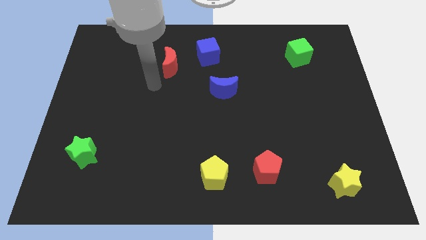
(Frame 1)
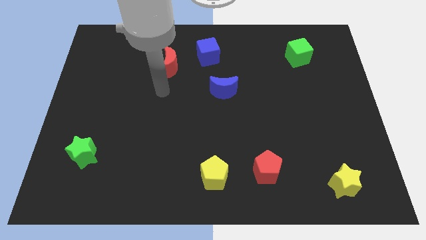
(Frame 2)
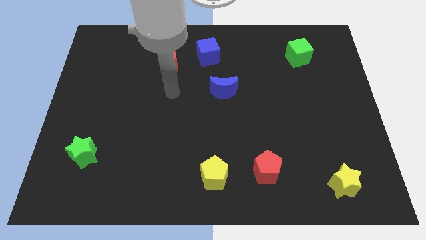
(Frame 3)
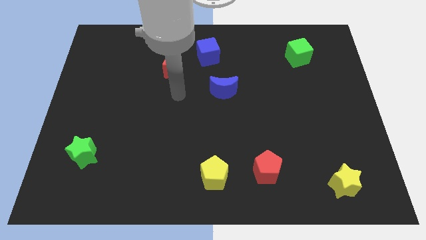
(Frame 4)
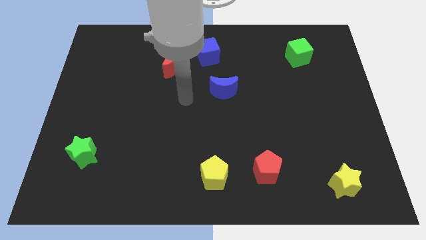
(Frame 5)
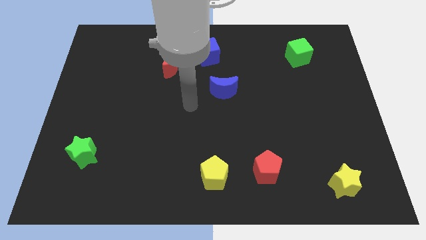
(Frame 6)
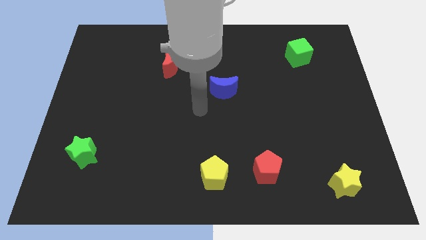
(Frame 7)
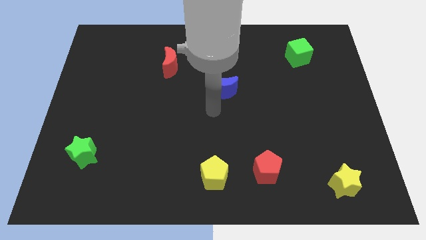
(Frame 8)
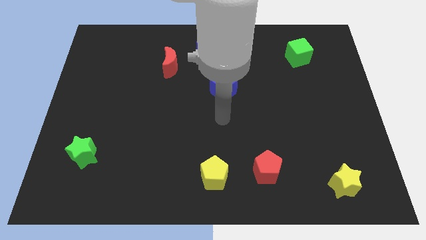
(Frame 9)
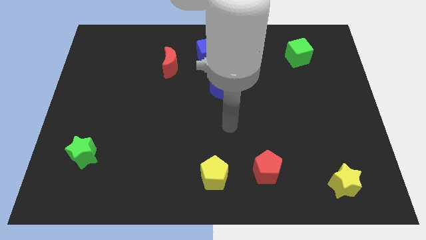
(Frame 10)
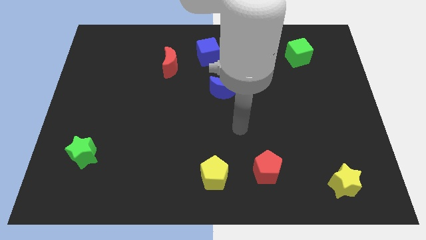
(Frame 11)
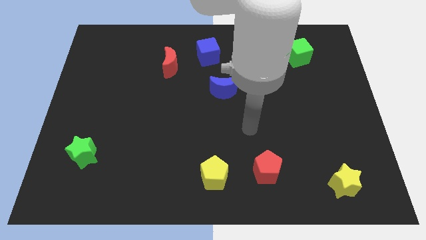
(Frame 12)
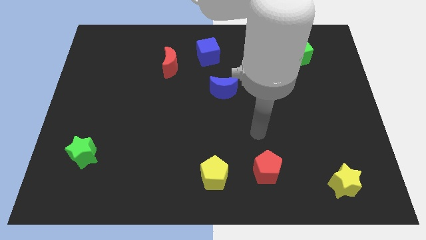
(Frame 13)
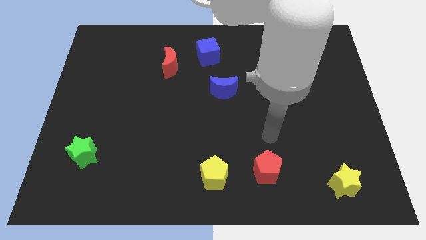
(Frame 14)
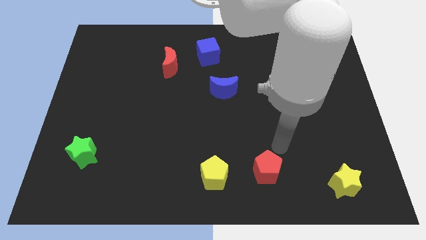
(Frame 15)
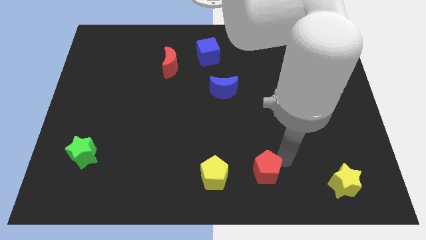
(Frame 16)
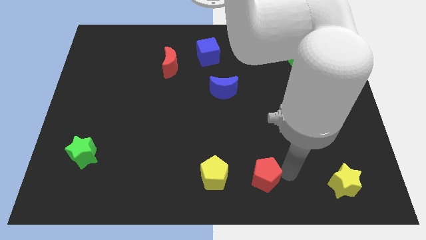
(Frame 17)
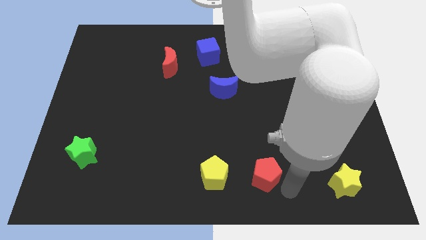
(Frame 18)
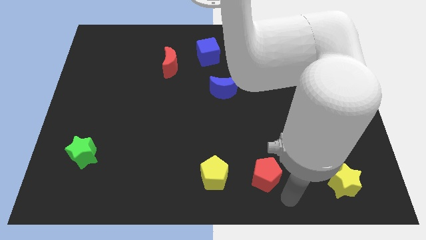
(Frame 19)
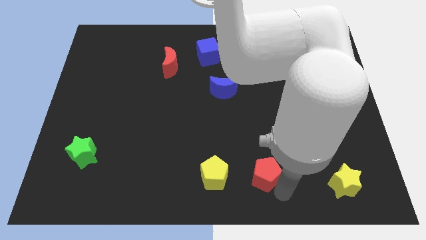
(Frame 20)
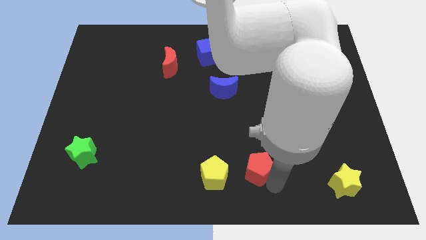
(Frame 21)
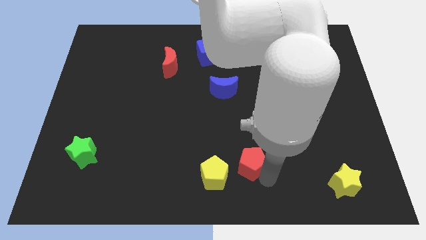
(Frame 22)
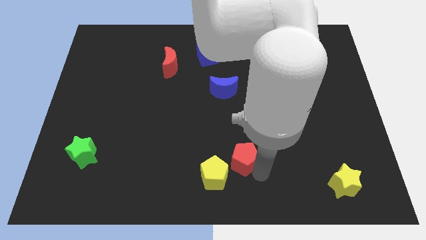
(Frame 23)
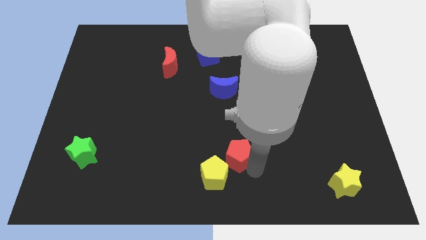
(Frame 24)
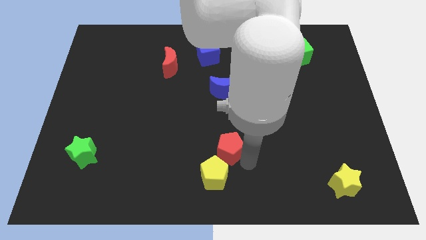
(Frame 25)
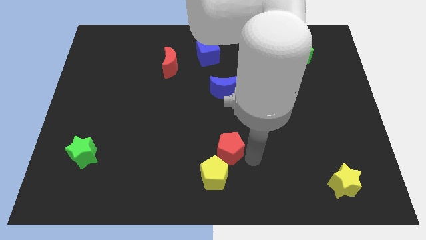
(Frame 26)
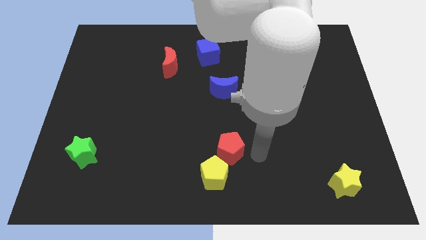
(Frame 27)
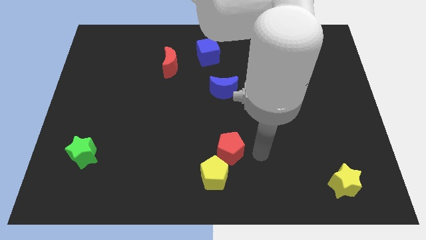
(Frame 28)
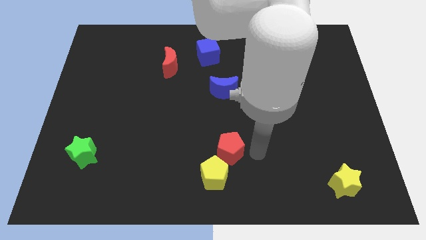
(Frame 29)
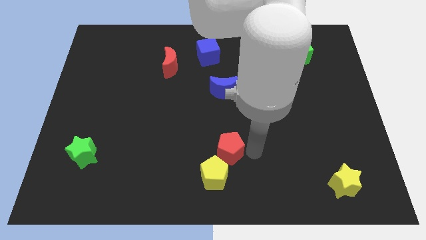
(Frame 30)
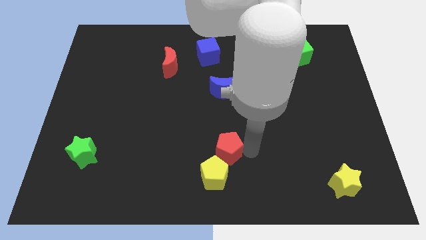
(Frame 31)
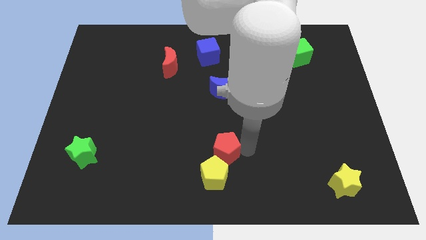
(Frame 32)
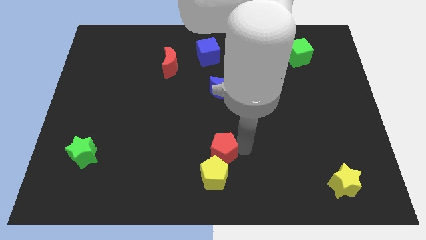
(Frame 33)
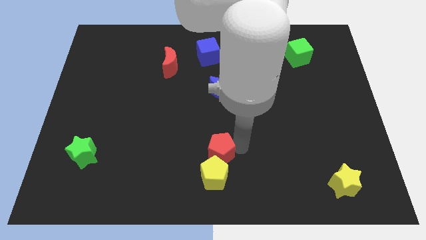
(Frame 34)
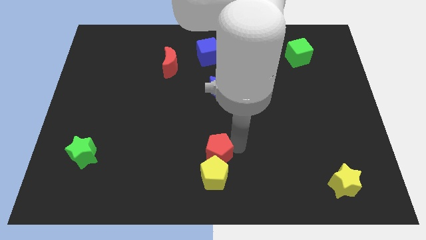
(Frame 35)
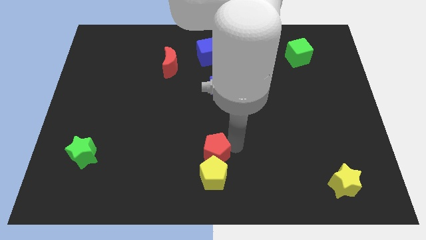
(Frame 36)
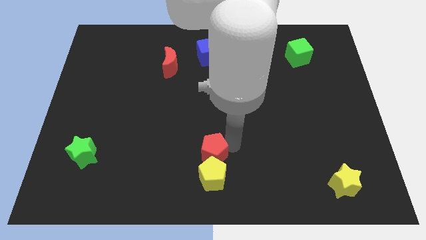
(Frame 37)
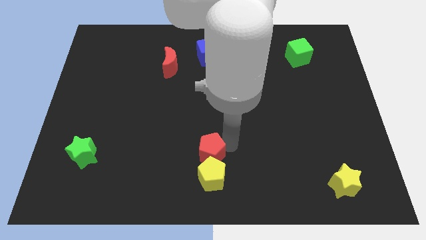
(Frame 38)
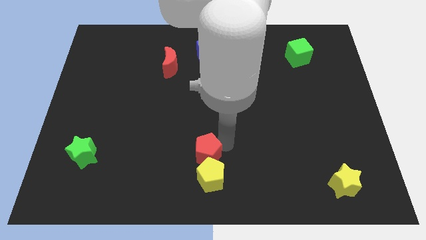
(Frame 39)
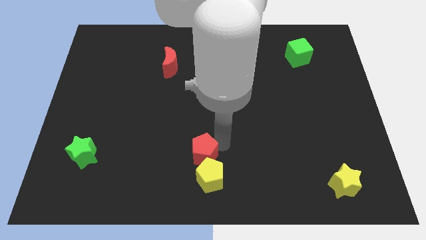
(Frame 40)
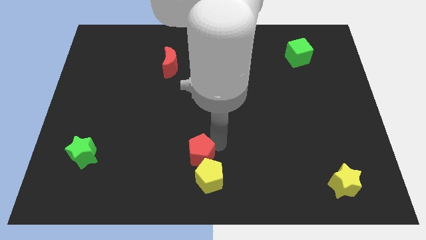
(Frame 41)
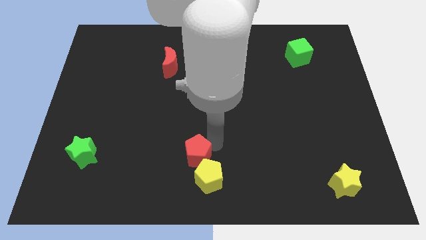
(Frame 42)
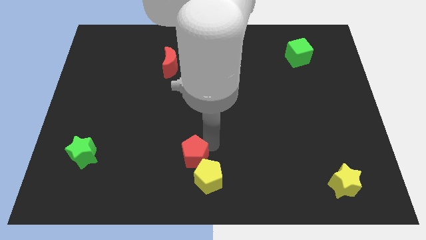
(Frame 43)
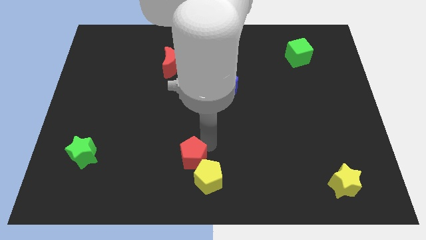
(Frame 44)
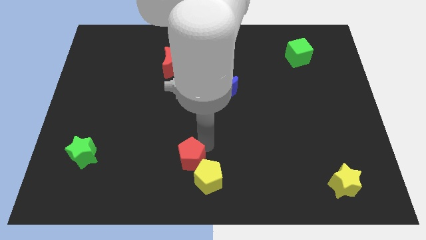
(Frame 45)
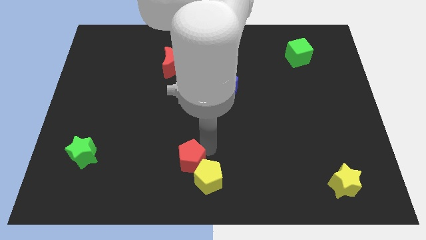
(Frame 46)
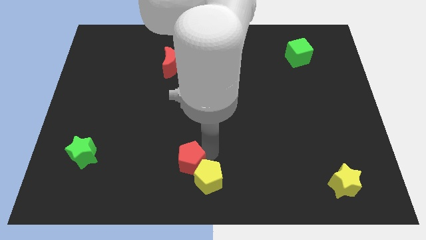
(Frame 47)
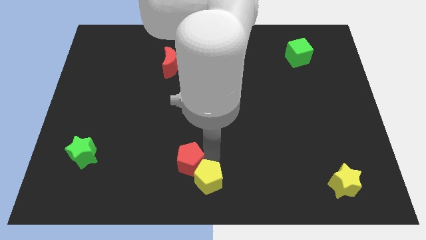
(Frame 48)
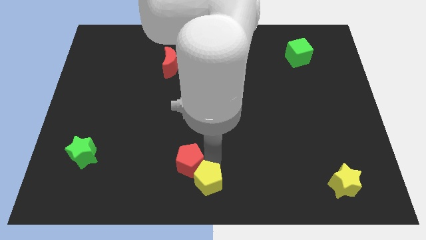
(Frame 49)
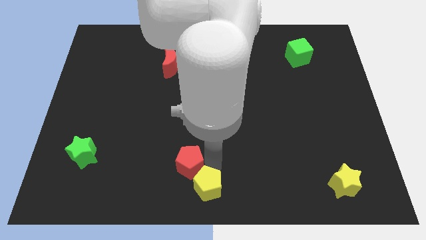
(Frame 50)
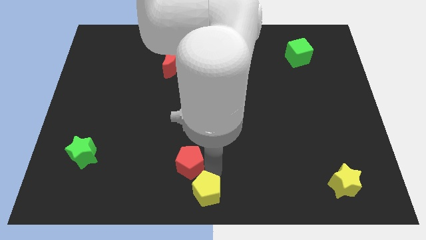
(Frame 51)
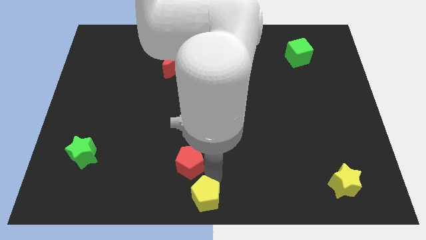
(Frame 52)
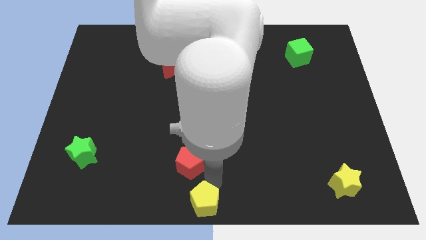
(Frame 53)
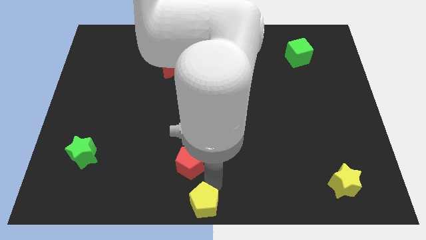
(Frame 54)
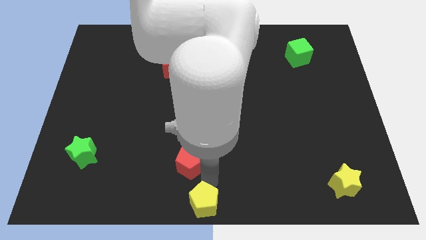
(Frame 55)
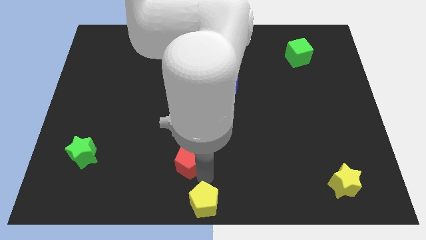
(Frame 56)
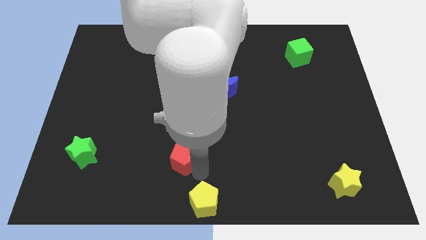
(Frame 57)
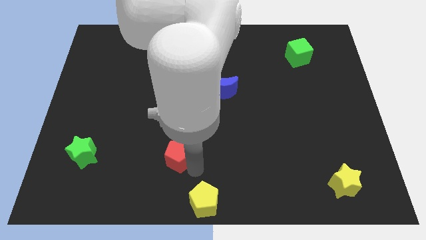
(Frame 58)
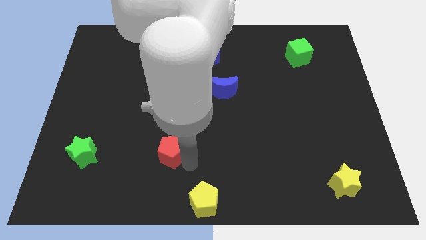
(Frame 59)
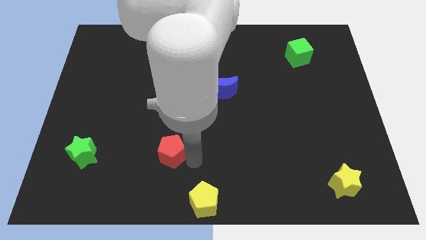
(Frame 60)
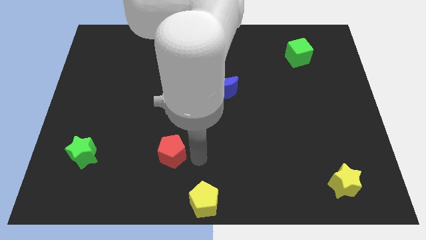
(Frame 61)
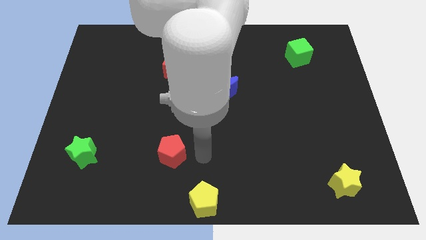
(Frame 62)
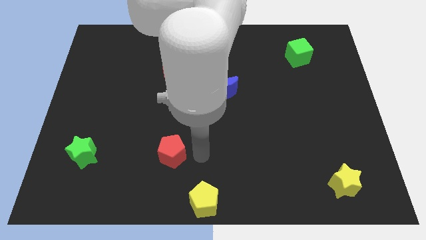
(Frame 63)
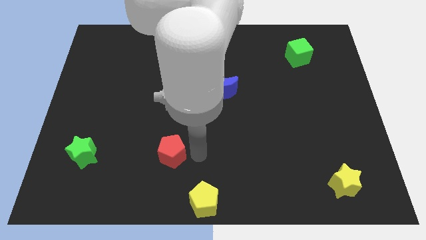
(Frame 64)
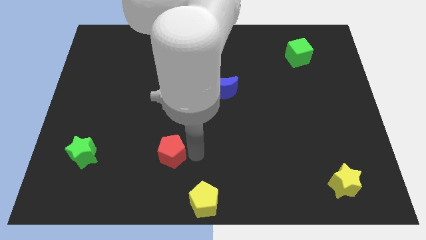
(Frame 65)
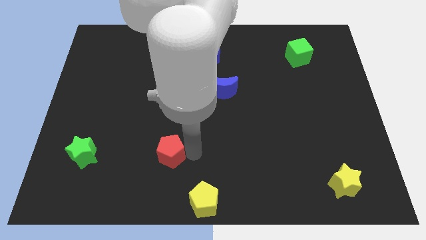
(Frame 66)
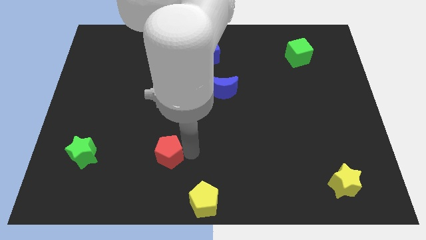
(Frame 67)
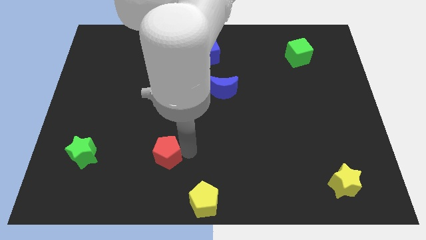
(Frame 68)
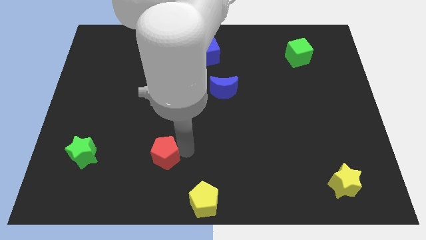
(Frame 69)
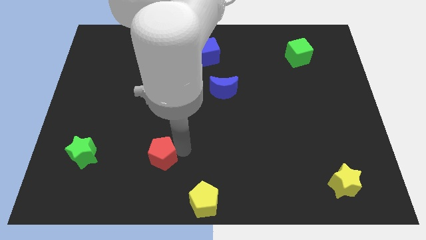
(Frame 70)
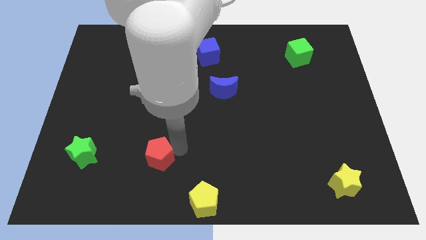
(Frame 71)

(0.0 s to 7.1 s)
move the red pentagon right of the green star
